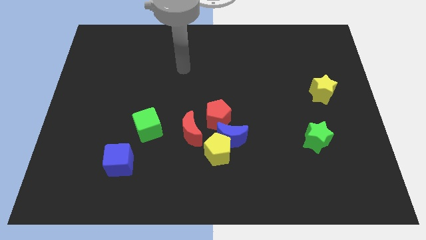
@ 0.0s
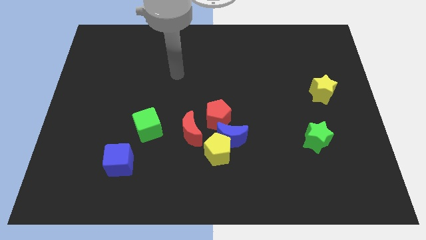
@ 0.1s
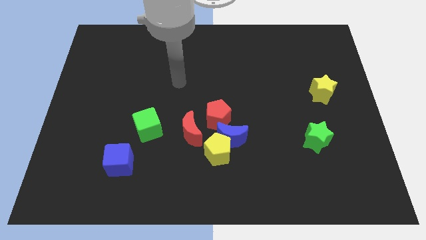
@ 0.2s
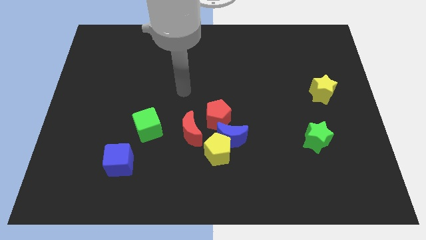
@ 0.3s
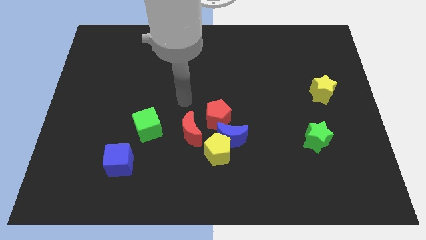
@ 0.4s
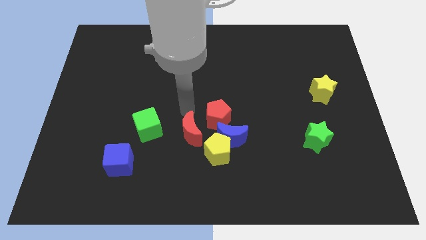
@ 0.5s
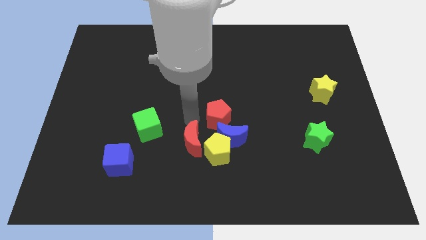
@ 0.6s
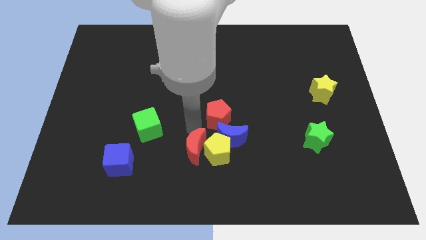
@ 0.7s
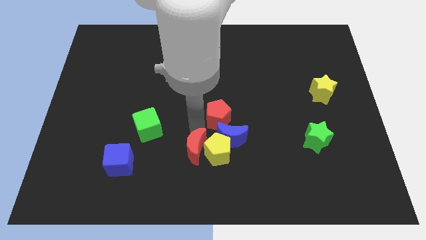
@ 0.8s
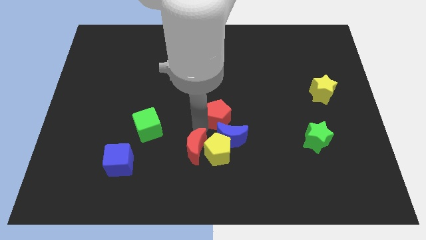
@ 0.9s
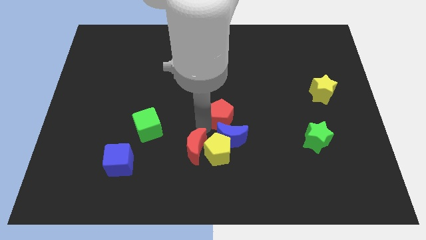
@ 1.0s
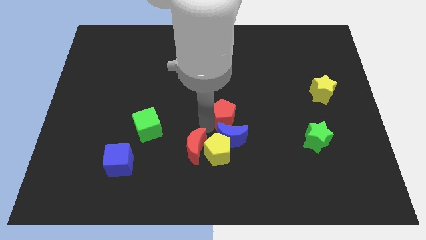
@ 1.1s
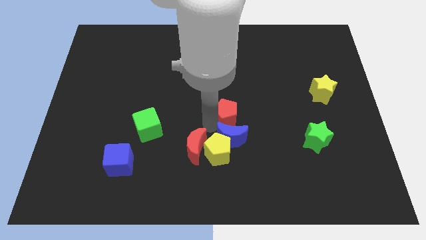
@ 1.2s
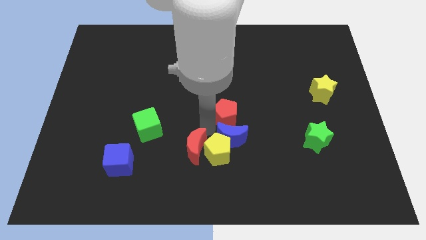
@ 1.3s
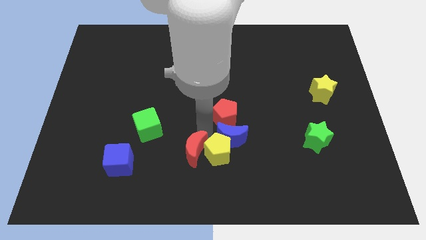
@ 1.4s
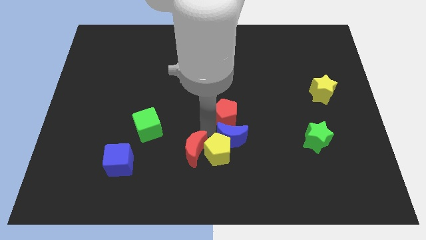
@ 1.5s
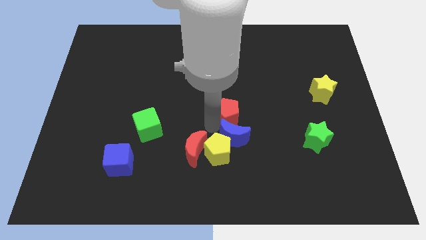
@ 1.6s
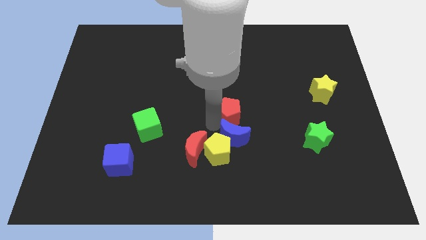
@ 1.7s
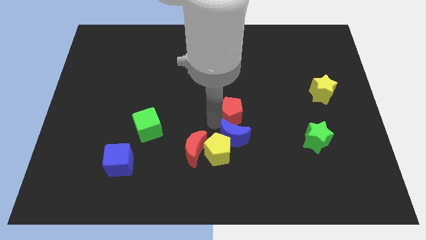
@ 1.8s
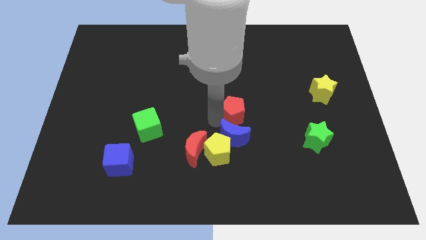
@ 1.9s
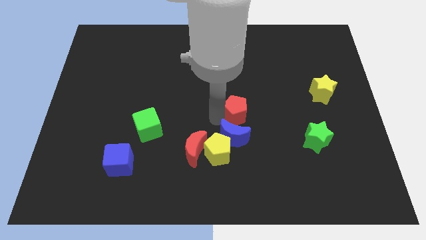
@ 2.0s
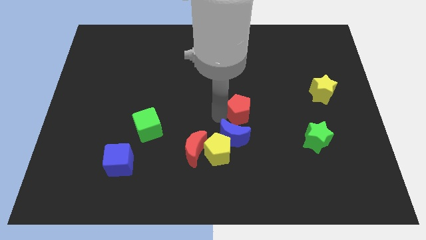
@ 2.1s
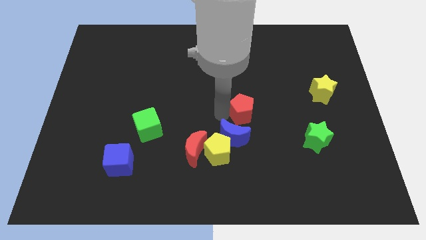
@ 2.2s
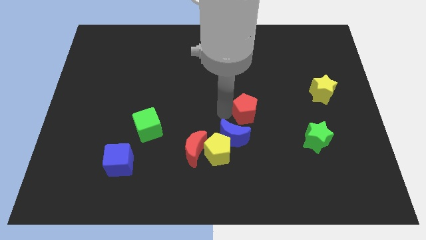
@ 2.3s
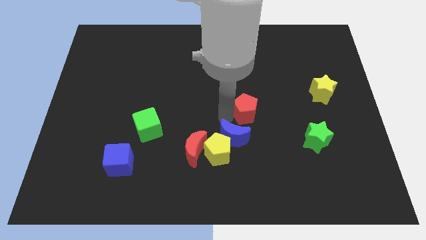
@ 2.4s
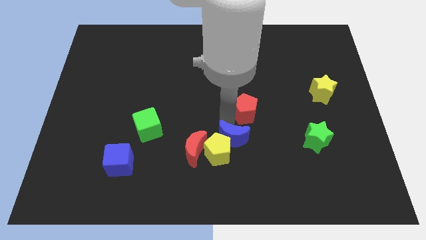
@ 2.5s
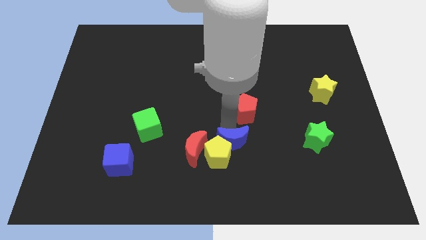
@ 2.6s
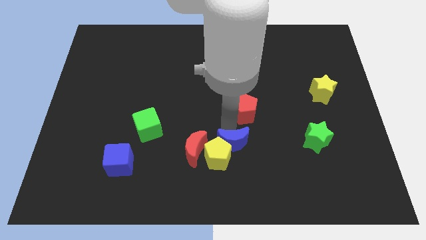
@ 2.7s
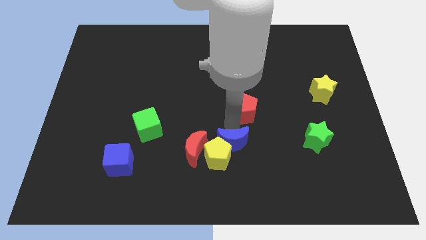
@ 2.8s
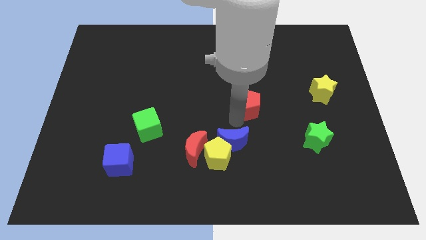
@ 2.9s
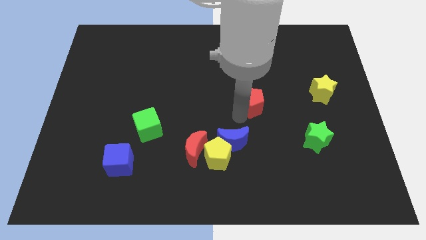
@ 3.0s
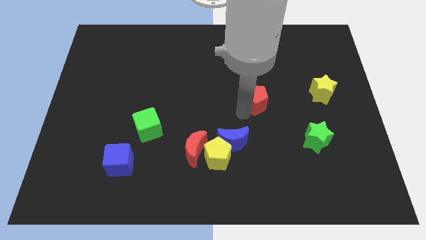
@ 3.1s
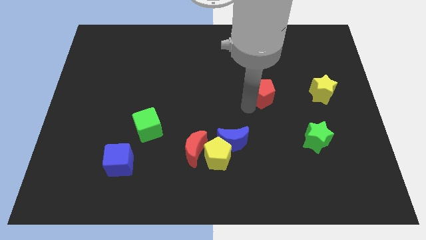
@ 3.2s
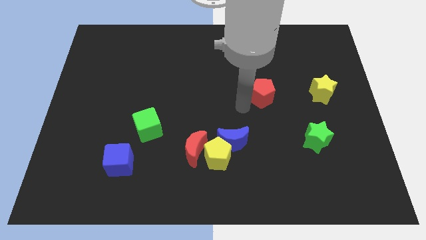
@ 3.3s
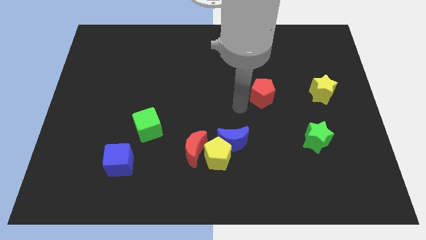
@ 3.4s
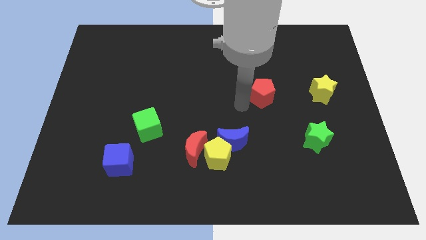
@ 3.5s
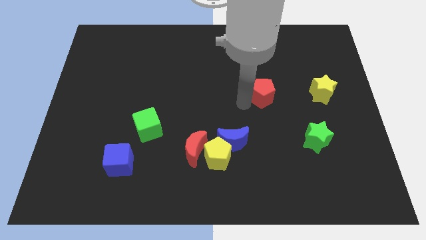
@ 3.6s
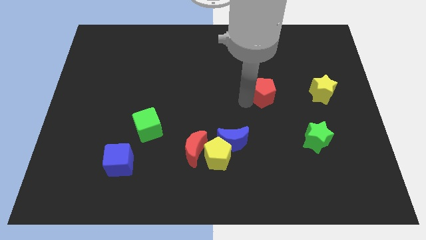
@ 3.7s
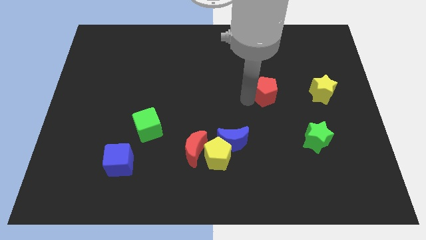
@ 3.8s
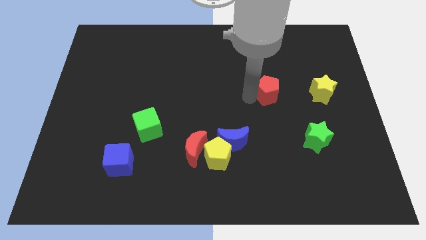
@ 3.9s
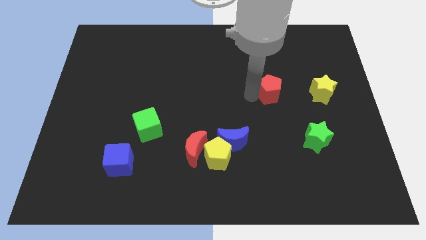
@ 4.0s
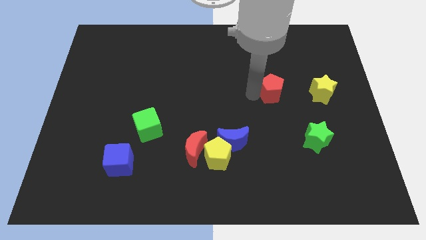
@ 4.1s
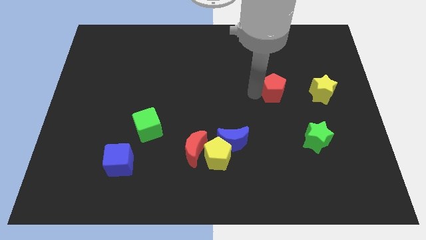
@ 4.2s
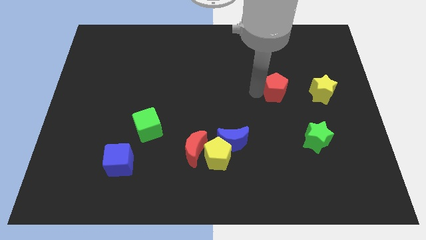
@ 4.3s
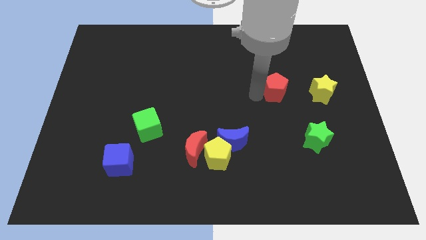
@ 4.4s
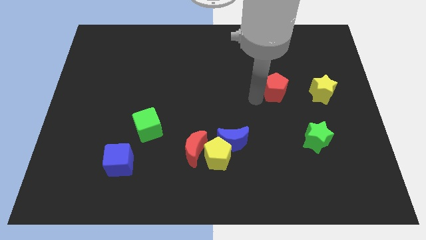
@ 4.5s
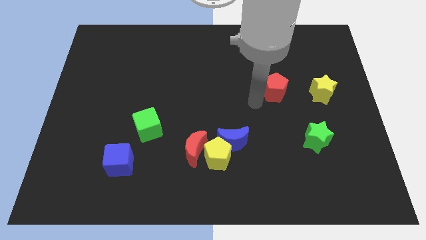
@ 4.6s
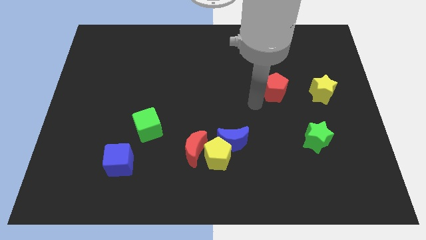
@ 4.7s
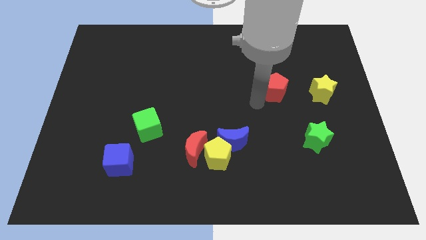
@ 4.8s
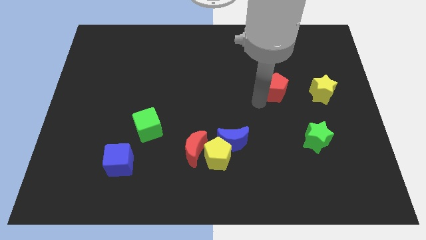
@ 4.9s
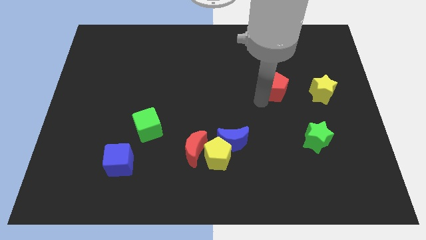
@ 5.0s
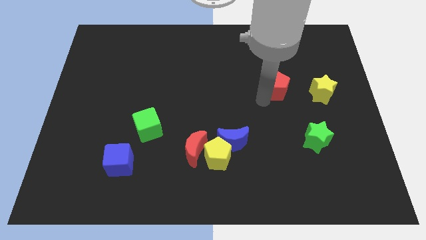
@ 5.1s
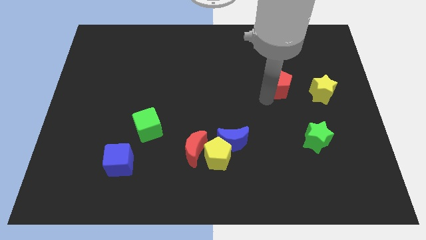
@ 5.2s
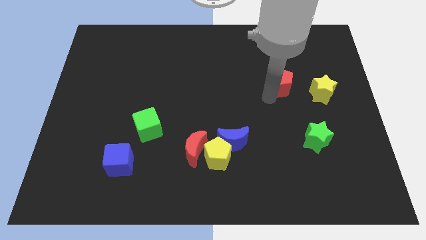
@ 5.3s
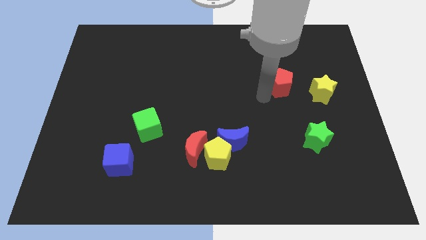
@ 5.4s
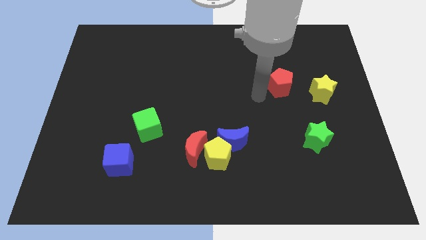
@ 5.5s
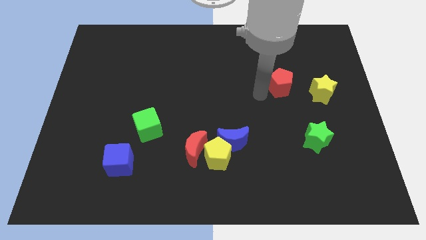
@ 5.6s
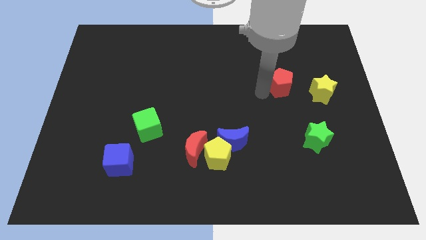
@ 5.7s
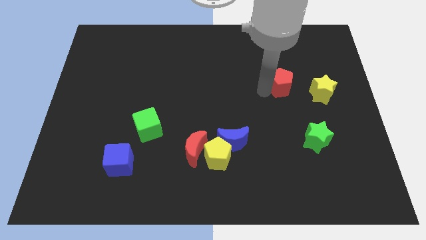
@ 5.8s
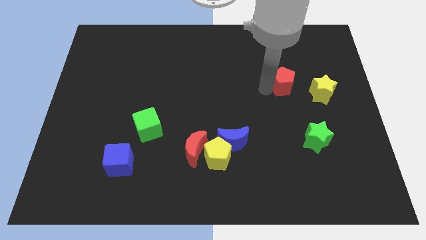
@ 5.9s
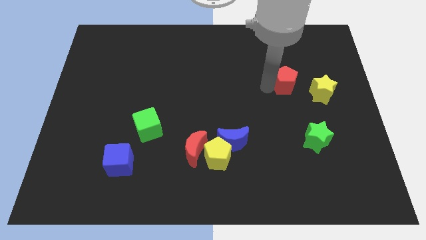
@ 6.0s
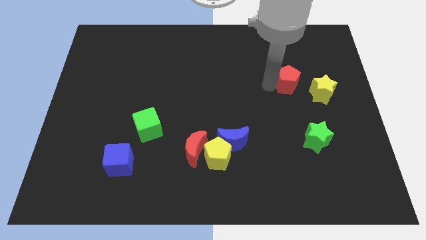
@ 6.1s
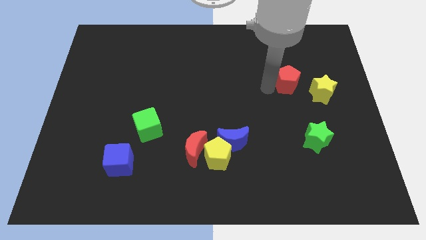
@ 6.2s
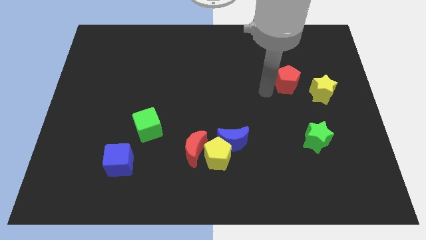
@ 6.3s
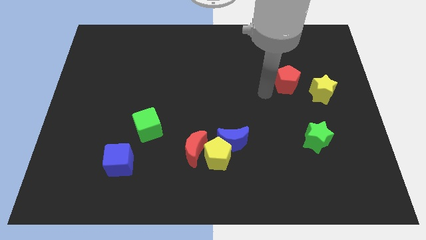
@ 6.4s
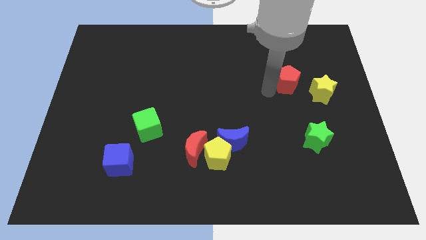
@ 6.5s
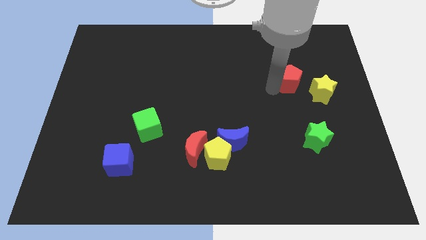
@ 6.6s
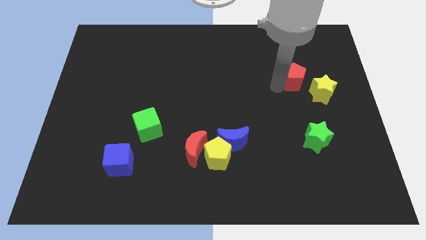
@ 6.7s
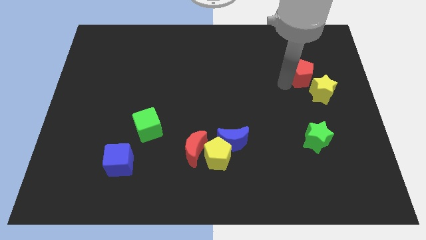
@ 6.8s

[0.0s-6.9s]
move the red pentagon above the yellow star

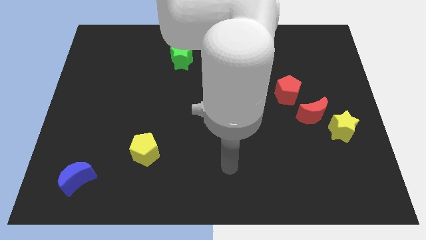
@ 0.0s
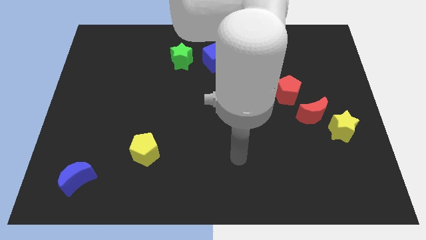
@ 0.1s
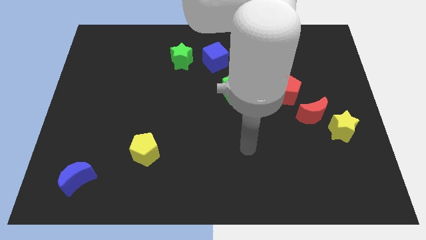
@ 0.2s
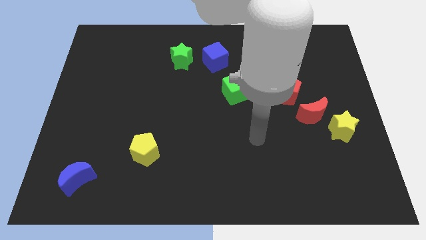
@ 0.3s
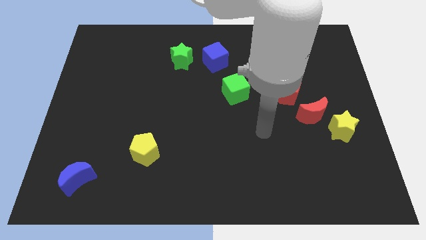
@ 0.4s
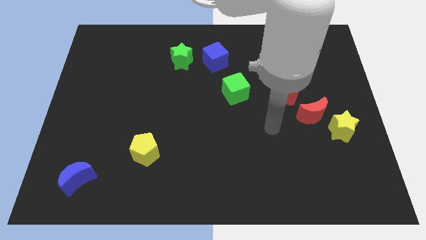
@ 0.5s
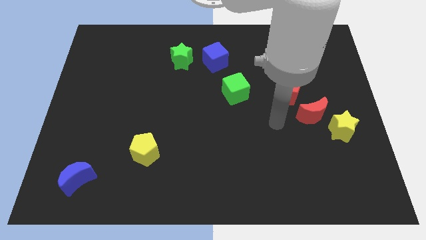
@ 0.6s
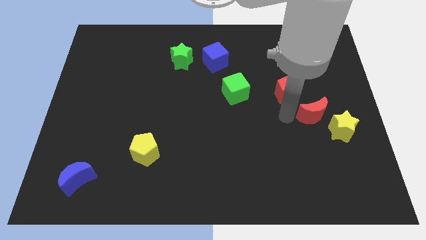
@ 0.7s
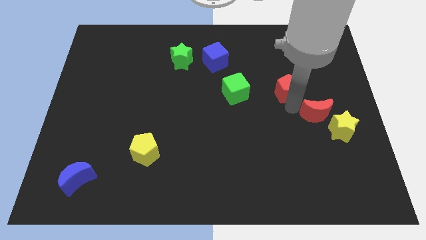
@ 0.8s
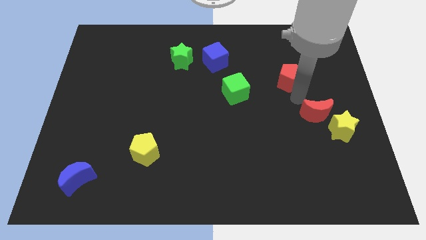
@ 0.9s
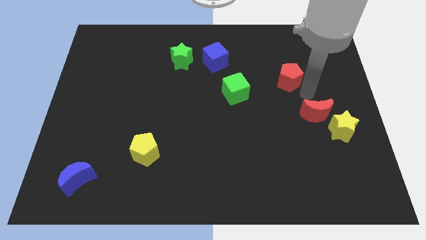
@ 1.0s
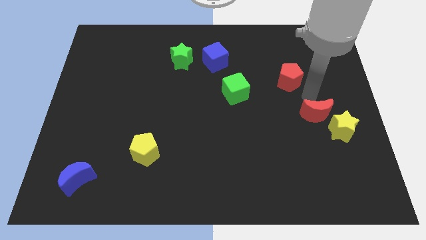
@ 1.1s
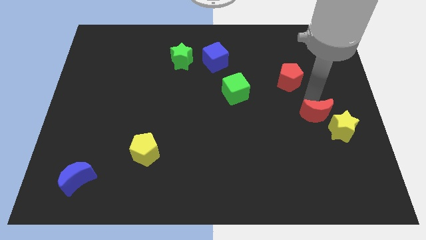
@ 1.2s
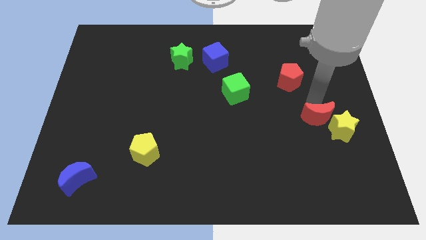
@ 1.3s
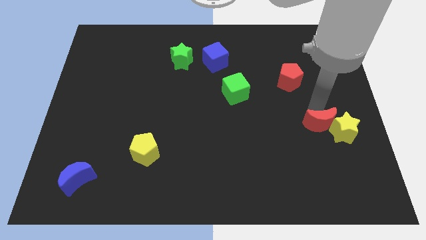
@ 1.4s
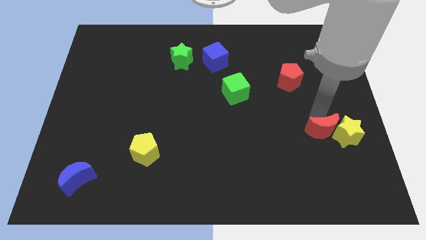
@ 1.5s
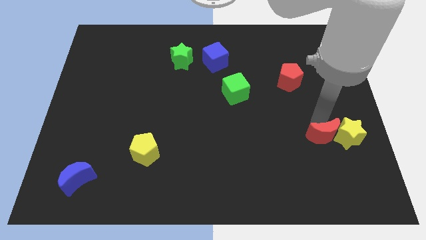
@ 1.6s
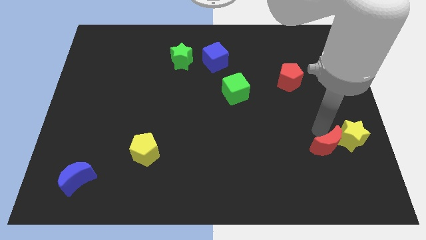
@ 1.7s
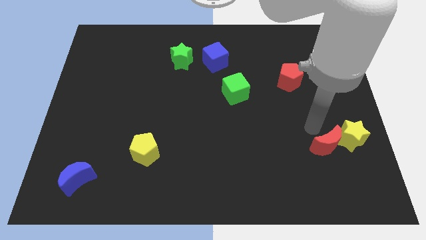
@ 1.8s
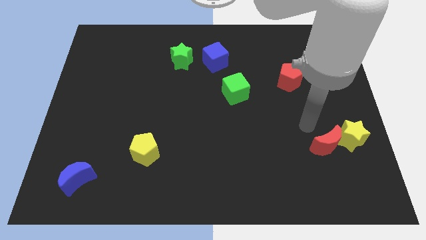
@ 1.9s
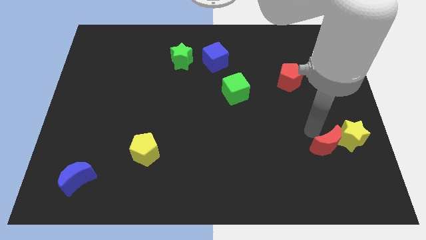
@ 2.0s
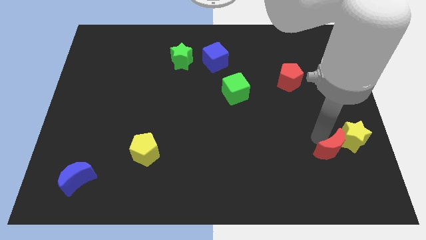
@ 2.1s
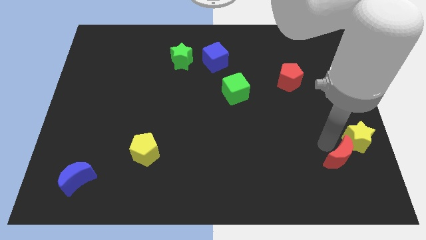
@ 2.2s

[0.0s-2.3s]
move the red moon to the bottom side of the yellow star
